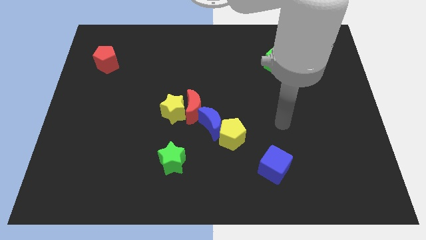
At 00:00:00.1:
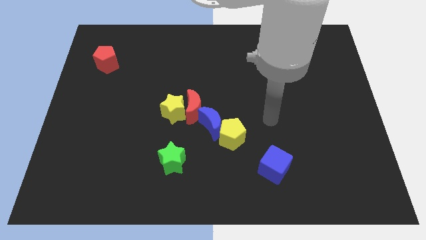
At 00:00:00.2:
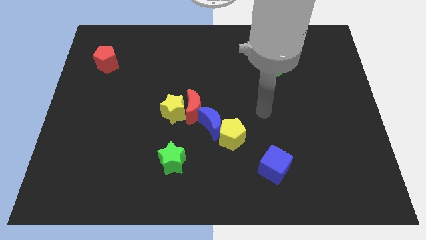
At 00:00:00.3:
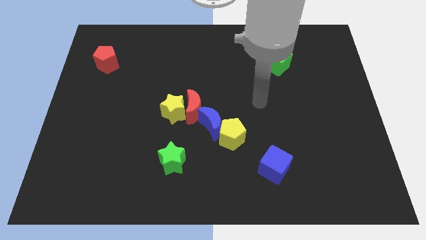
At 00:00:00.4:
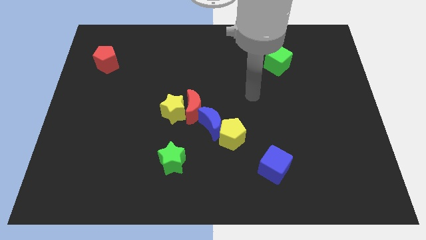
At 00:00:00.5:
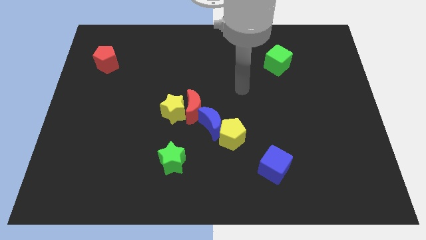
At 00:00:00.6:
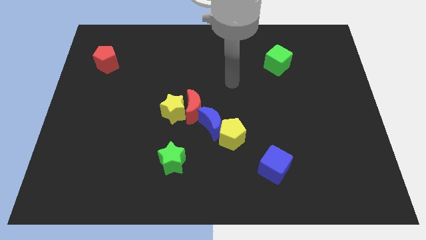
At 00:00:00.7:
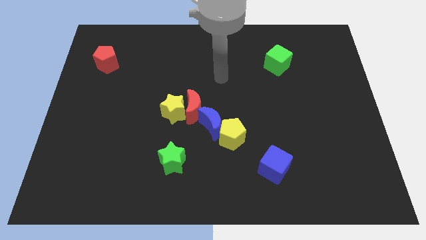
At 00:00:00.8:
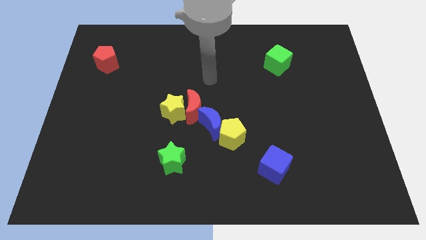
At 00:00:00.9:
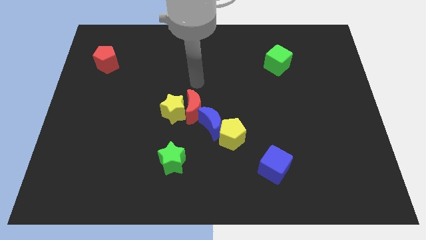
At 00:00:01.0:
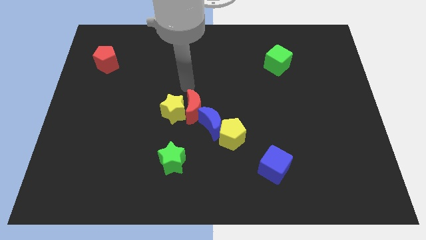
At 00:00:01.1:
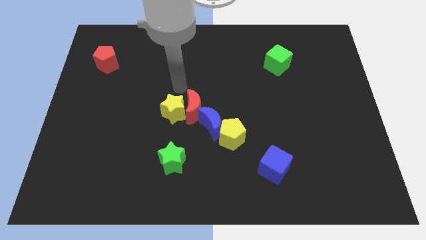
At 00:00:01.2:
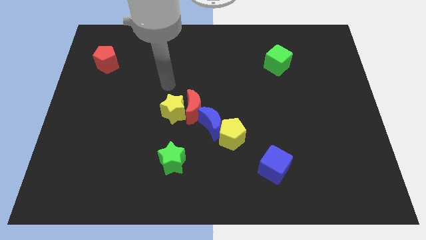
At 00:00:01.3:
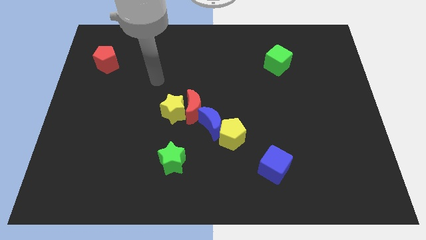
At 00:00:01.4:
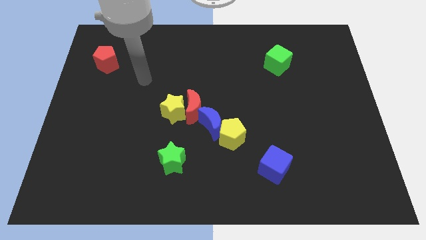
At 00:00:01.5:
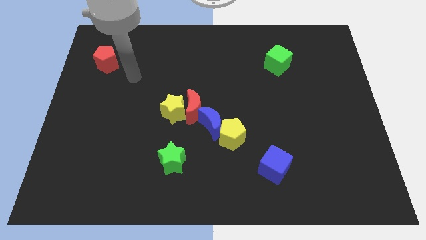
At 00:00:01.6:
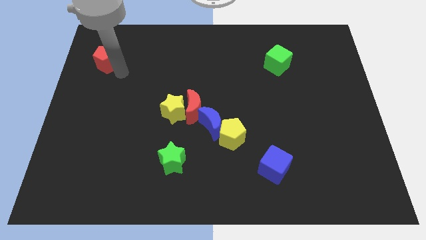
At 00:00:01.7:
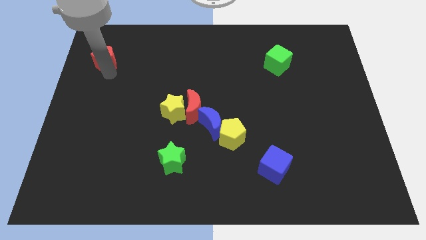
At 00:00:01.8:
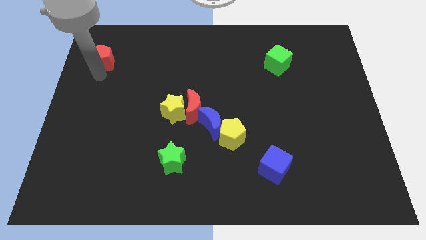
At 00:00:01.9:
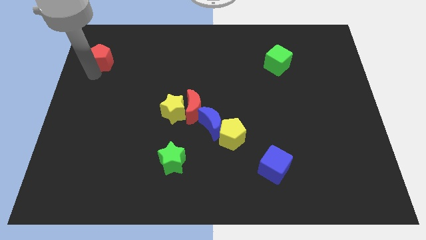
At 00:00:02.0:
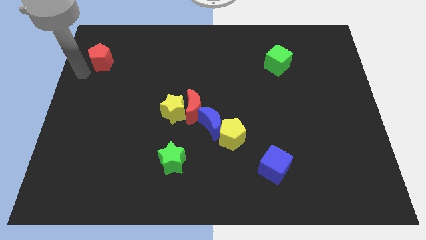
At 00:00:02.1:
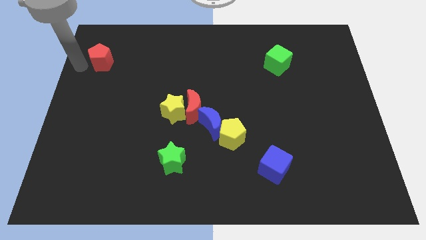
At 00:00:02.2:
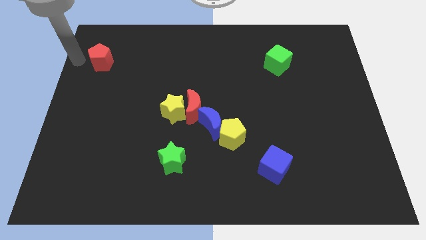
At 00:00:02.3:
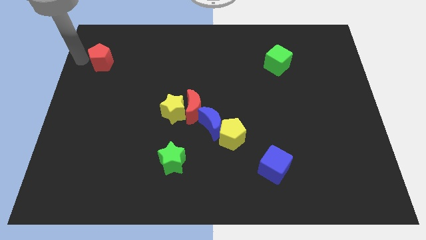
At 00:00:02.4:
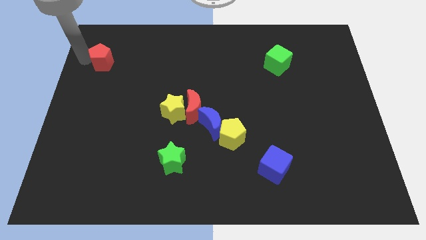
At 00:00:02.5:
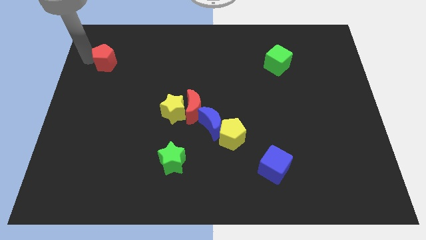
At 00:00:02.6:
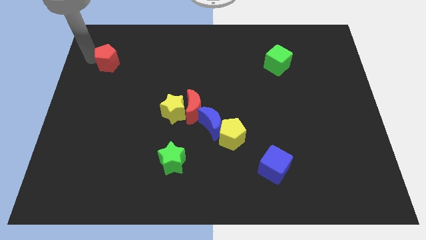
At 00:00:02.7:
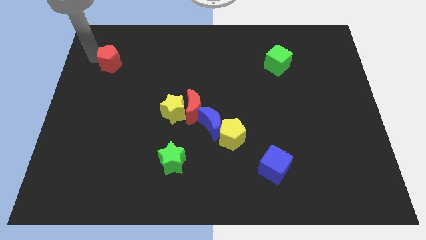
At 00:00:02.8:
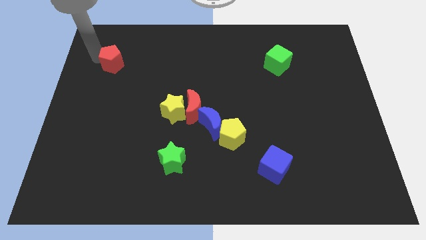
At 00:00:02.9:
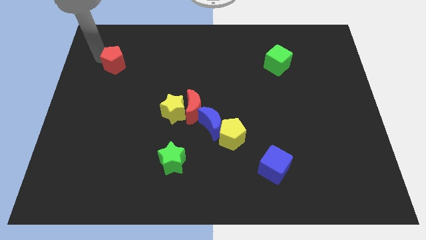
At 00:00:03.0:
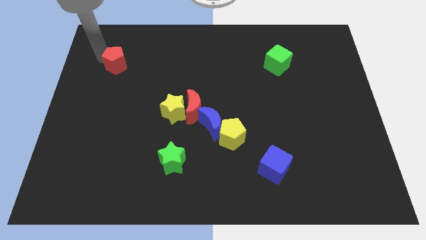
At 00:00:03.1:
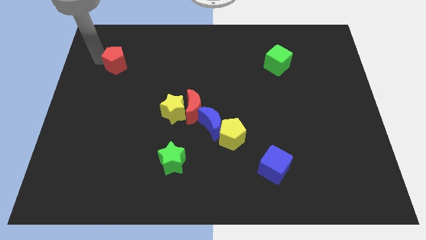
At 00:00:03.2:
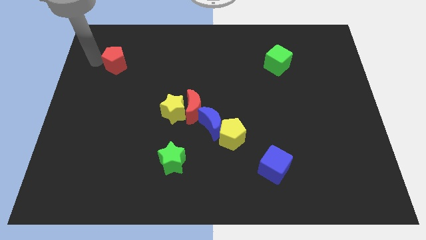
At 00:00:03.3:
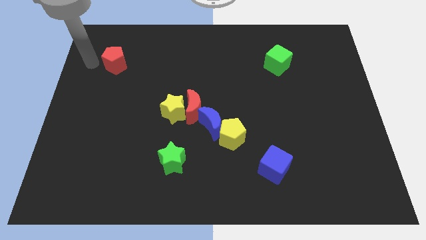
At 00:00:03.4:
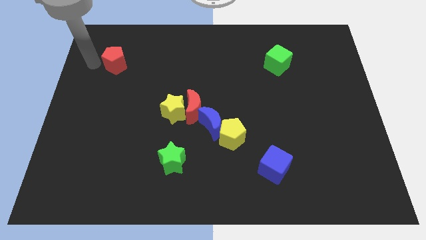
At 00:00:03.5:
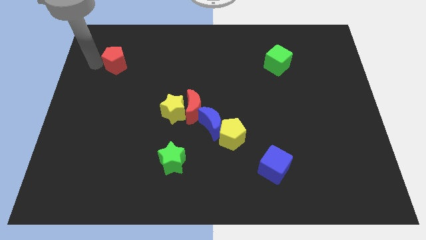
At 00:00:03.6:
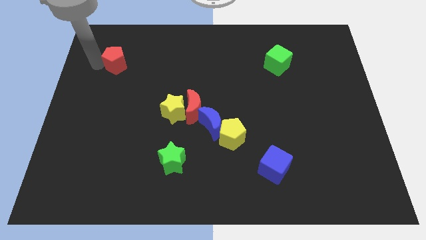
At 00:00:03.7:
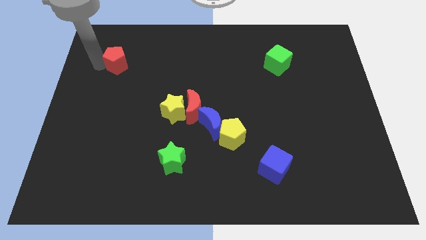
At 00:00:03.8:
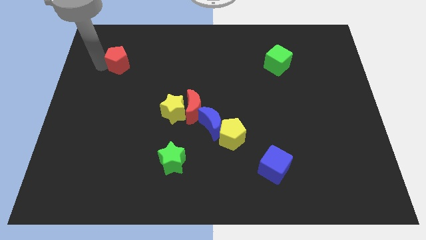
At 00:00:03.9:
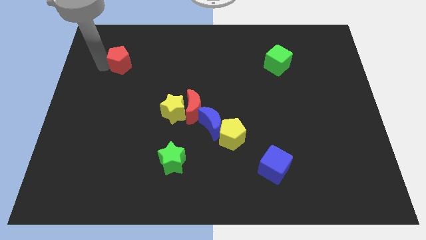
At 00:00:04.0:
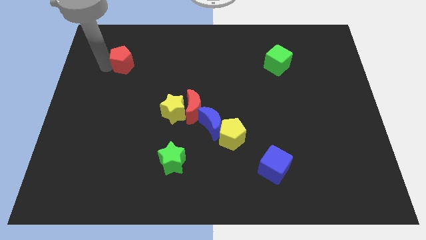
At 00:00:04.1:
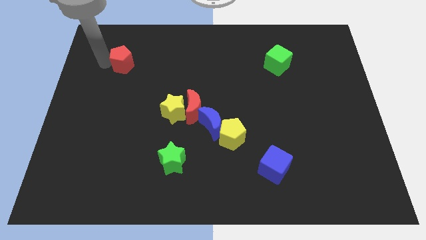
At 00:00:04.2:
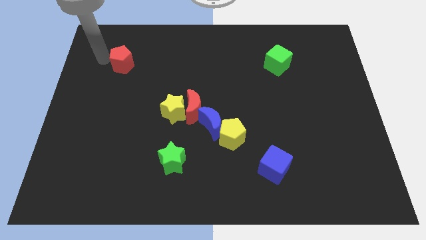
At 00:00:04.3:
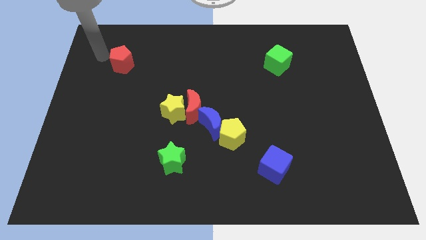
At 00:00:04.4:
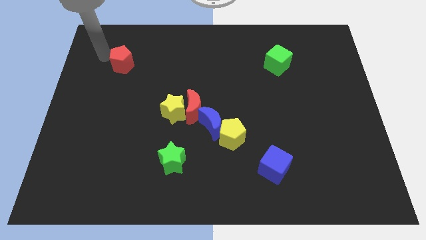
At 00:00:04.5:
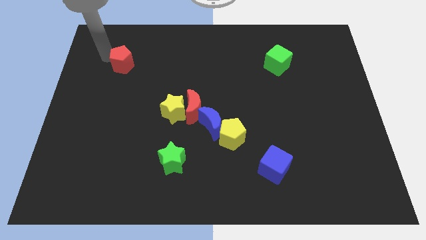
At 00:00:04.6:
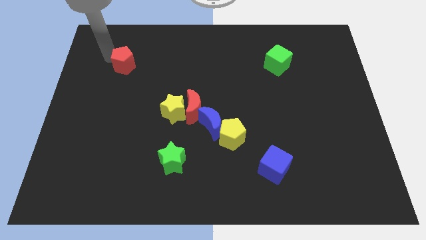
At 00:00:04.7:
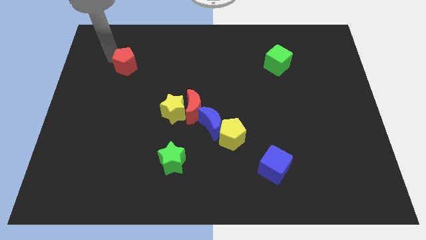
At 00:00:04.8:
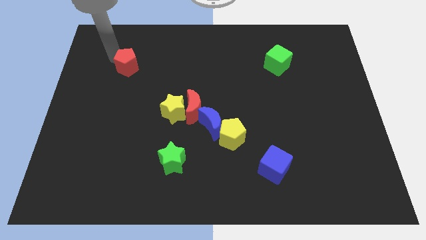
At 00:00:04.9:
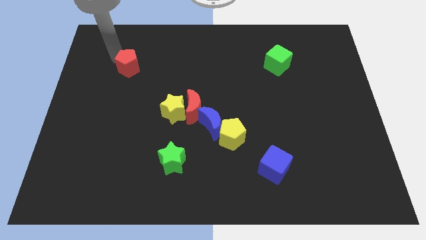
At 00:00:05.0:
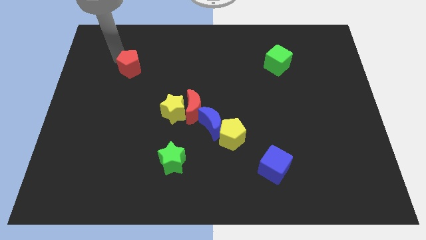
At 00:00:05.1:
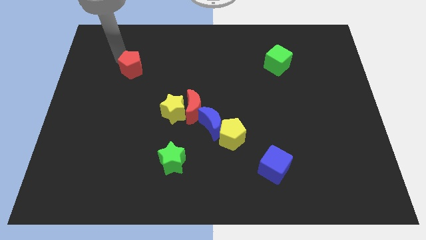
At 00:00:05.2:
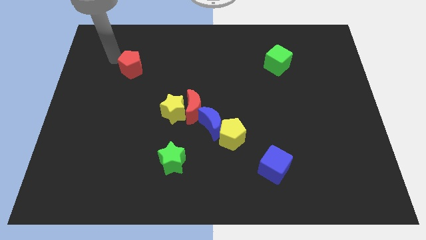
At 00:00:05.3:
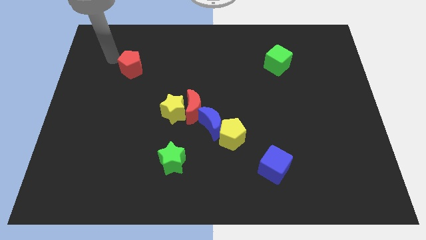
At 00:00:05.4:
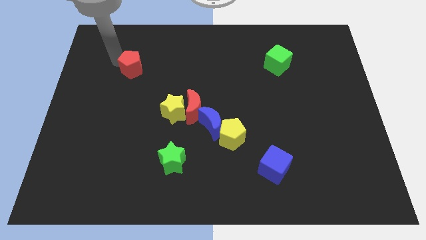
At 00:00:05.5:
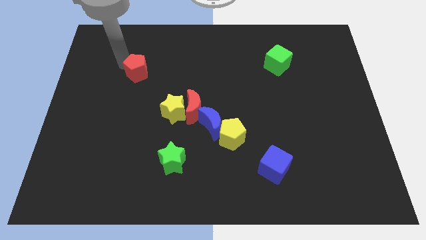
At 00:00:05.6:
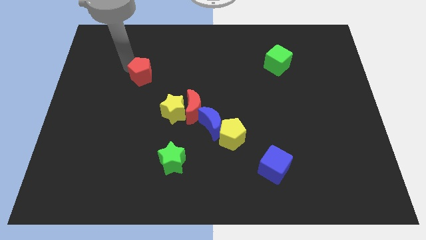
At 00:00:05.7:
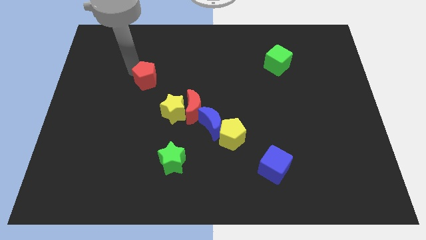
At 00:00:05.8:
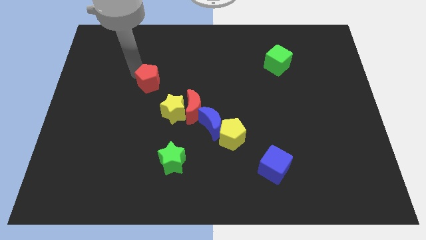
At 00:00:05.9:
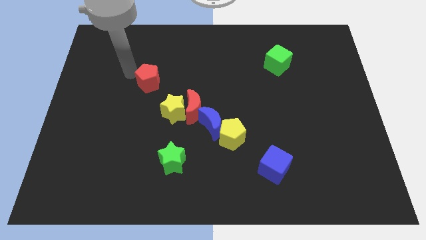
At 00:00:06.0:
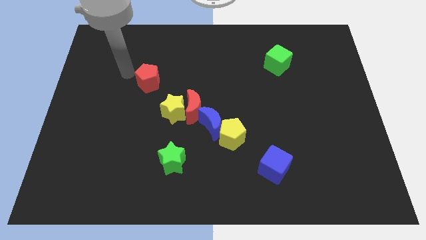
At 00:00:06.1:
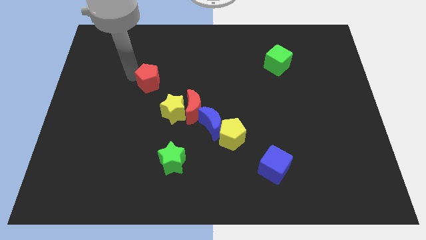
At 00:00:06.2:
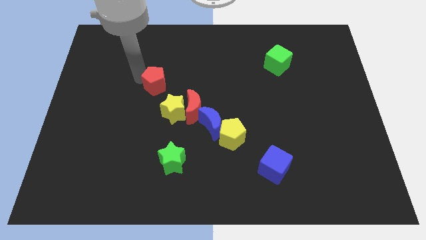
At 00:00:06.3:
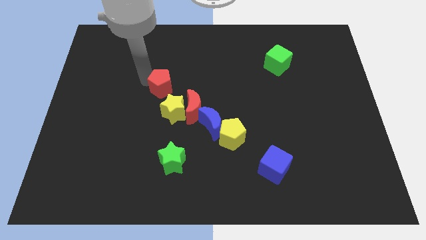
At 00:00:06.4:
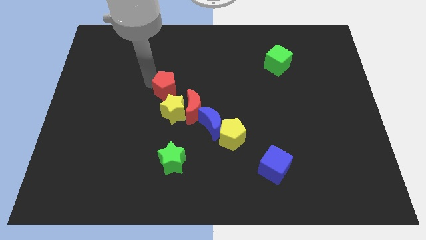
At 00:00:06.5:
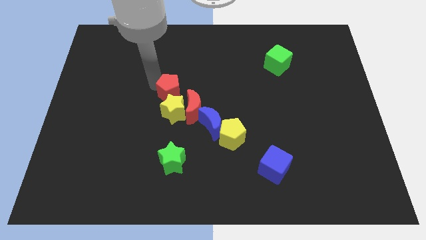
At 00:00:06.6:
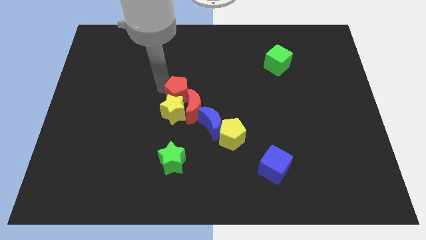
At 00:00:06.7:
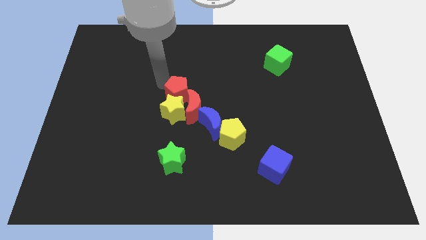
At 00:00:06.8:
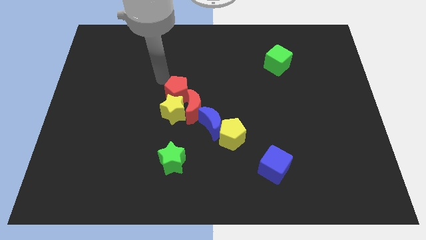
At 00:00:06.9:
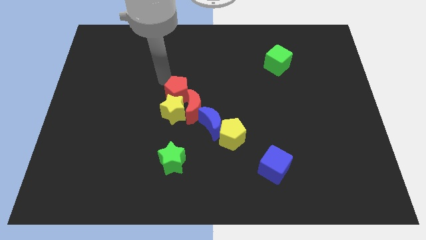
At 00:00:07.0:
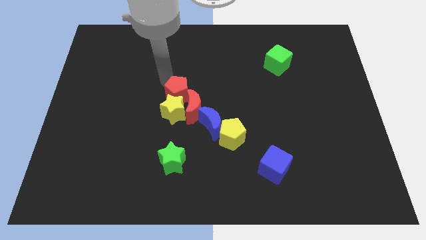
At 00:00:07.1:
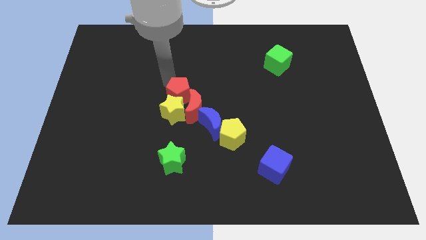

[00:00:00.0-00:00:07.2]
slide the red pentagon next to the red moon
